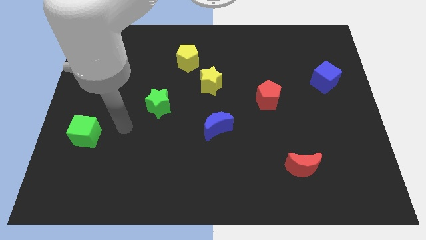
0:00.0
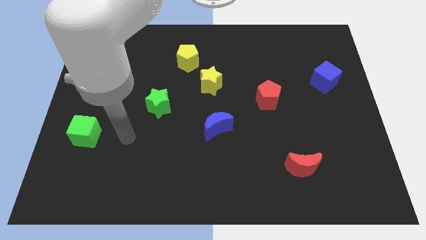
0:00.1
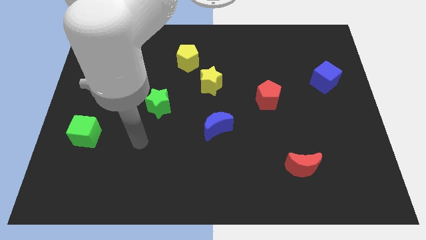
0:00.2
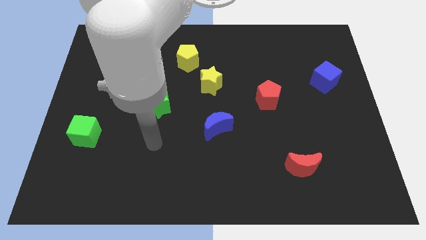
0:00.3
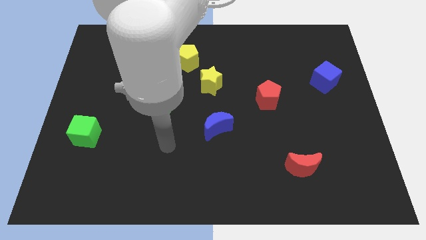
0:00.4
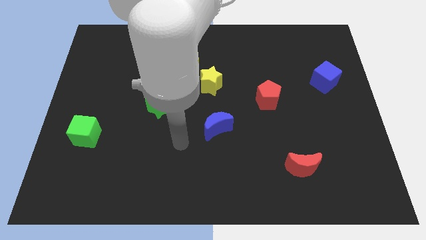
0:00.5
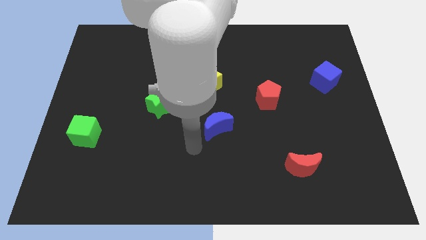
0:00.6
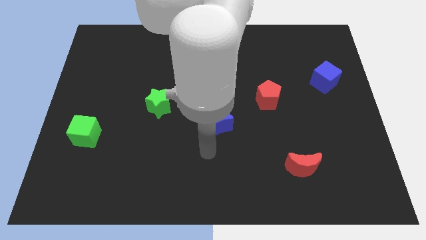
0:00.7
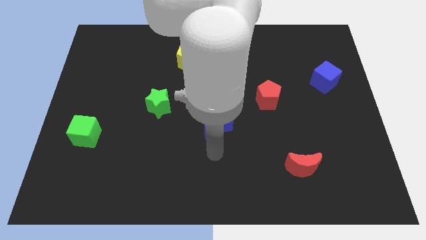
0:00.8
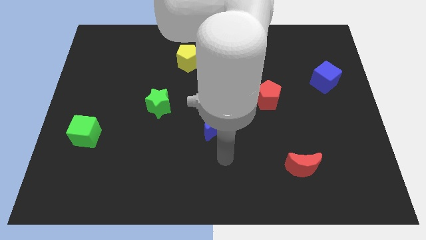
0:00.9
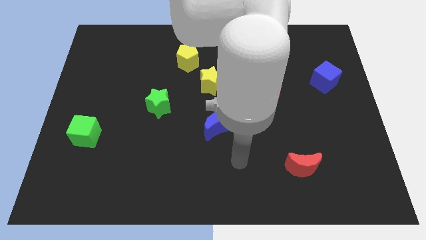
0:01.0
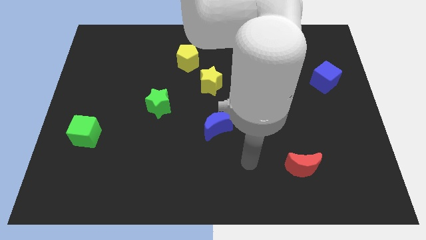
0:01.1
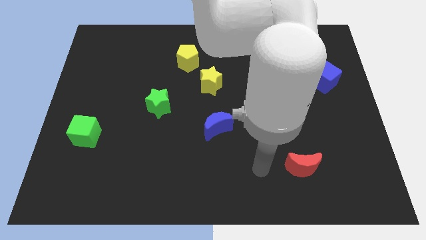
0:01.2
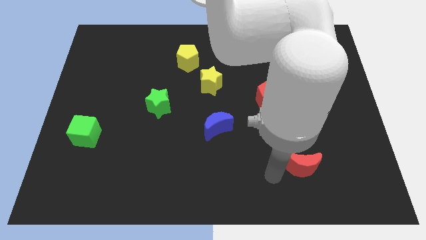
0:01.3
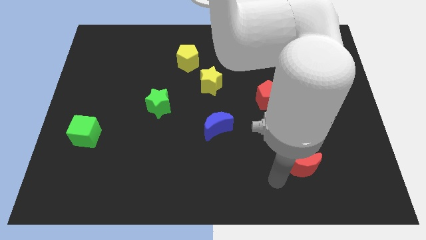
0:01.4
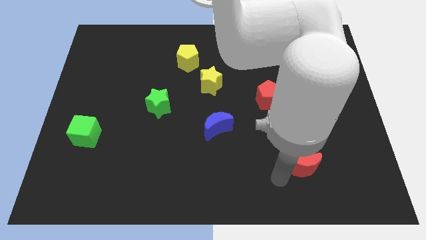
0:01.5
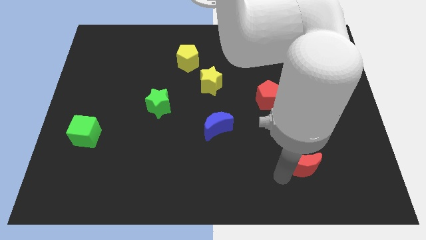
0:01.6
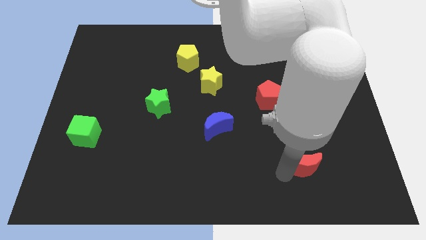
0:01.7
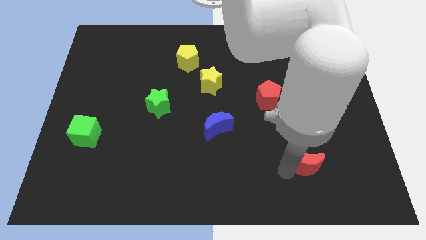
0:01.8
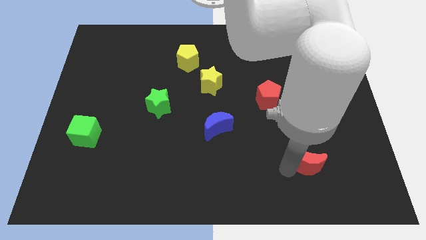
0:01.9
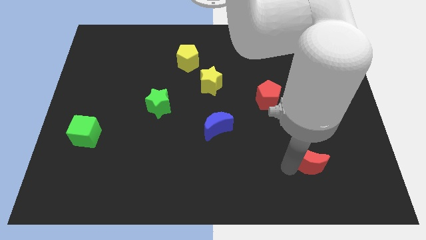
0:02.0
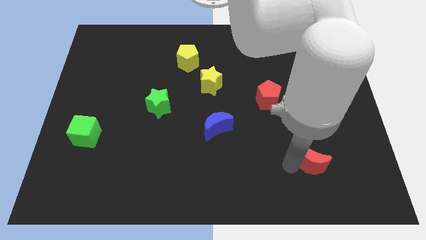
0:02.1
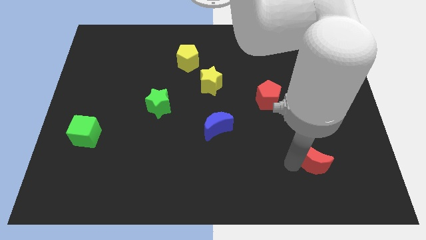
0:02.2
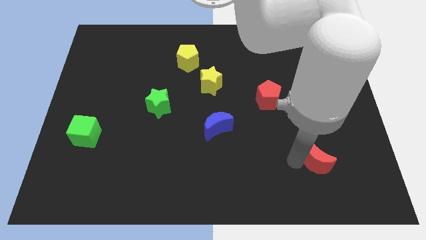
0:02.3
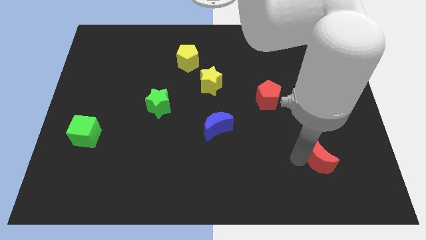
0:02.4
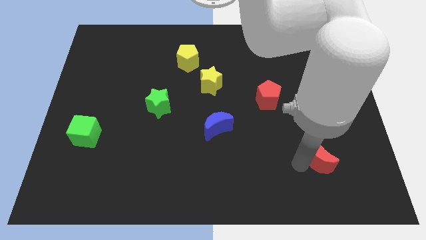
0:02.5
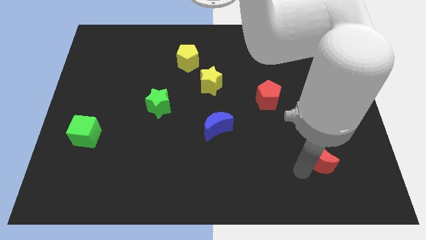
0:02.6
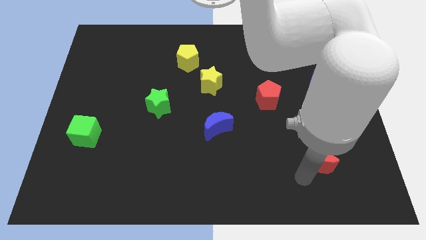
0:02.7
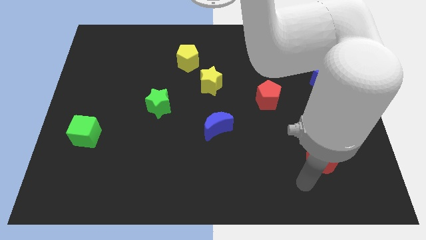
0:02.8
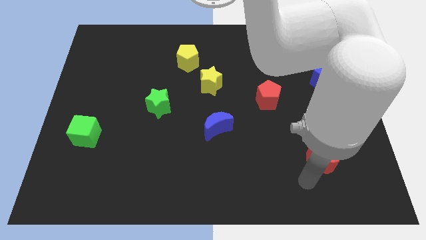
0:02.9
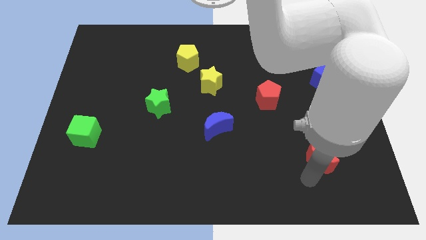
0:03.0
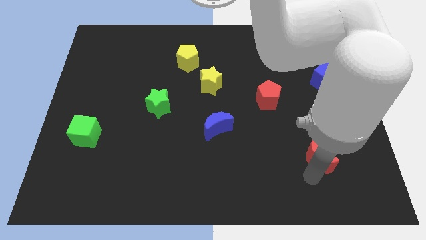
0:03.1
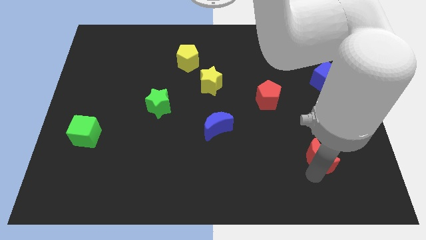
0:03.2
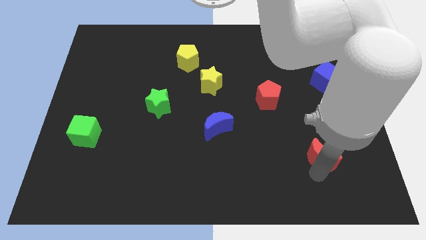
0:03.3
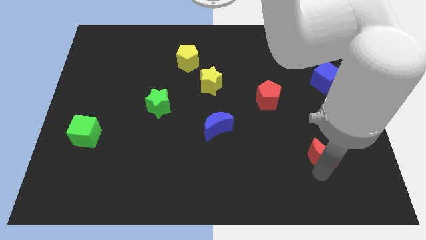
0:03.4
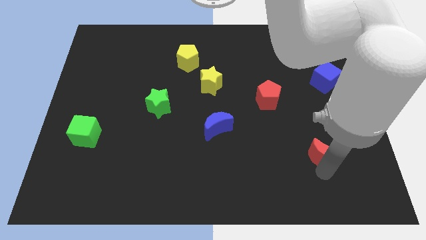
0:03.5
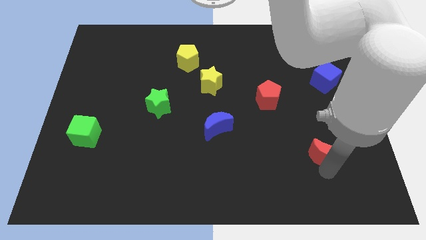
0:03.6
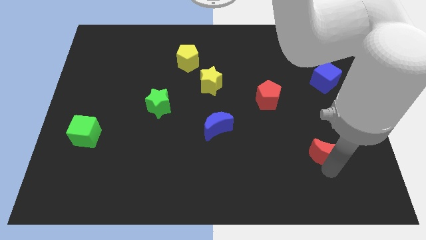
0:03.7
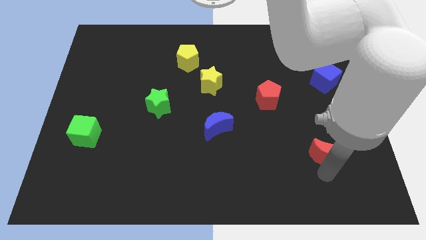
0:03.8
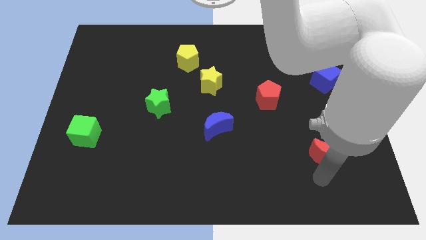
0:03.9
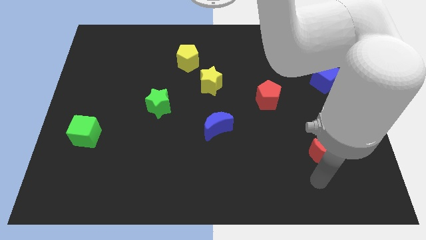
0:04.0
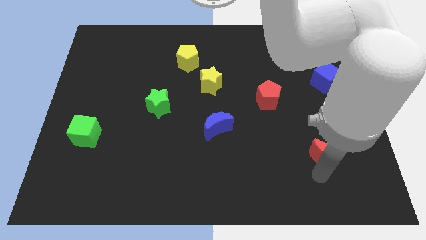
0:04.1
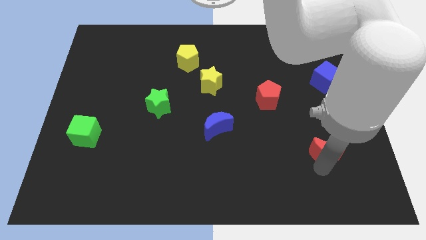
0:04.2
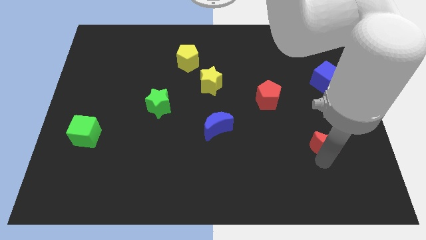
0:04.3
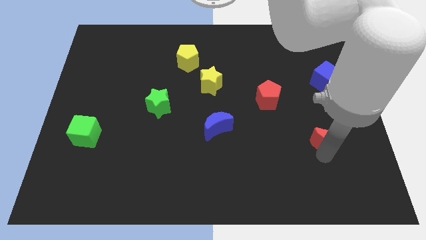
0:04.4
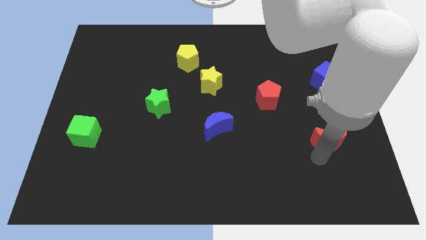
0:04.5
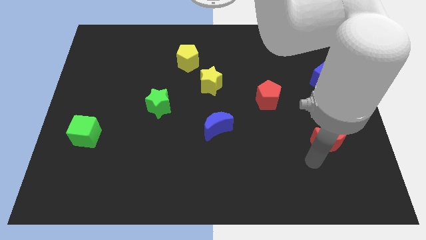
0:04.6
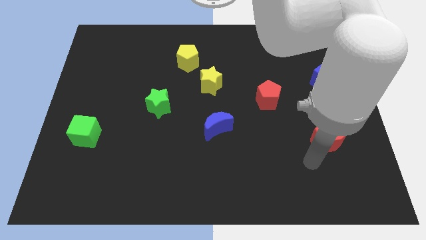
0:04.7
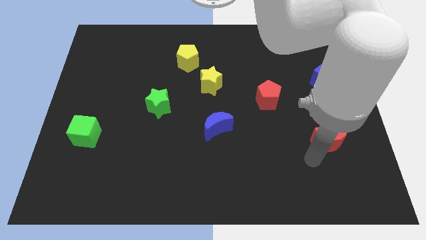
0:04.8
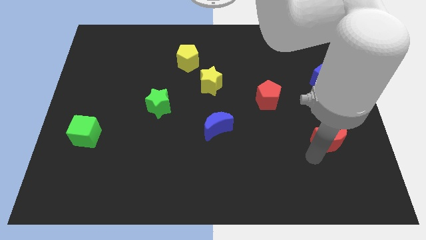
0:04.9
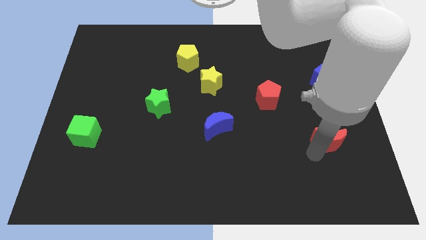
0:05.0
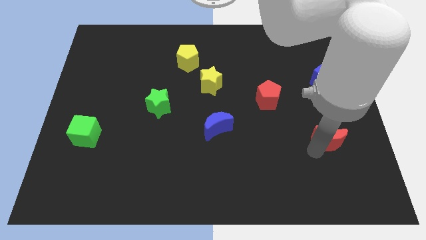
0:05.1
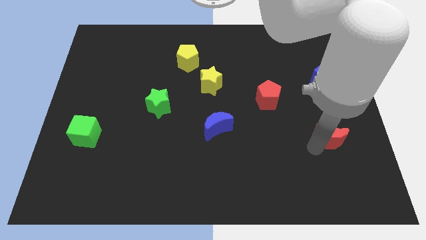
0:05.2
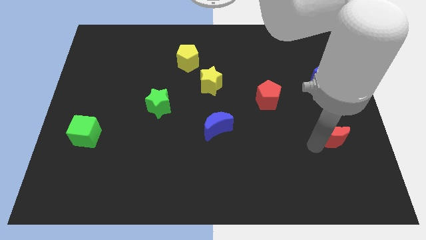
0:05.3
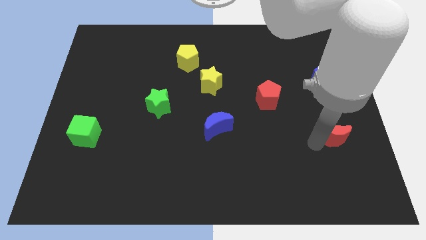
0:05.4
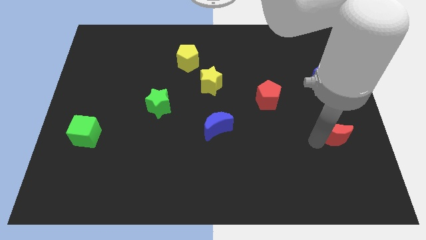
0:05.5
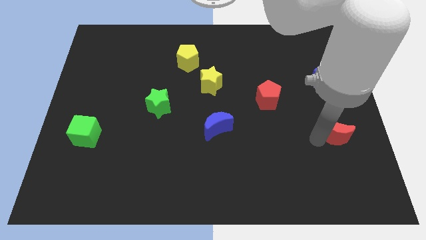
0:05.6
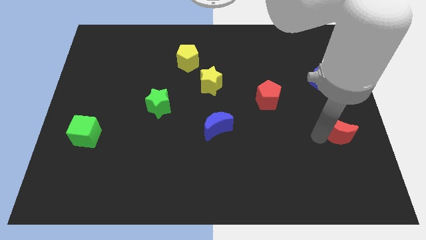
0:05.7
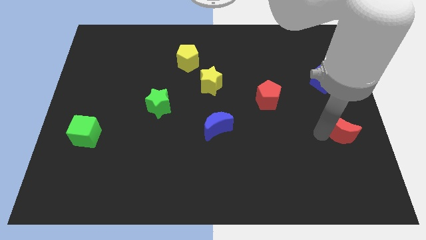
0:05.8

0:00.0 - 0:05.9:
move the red moon to the right side of the board

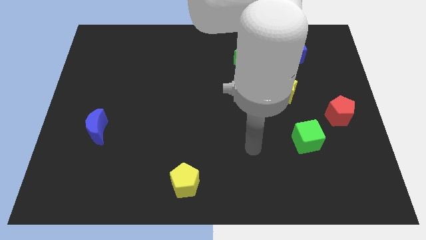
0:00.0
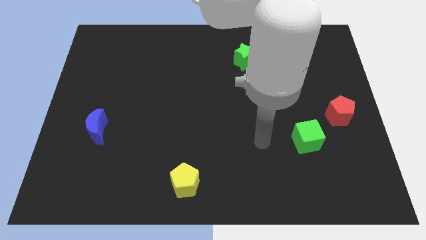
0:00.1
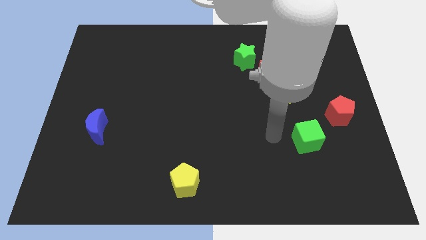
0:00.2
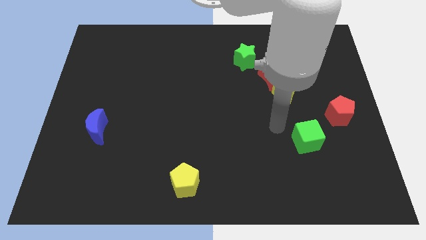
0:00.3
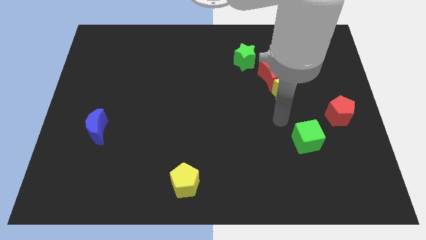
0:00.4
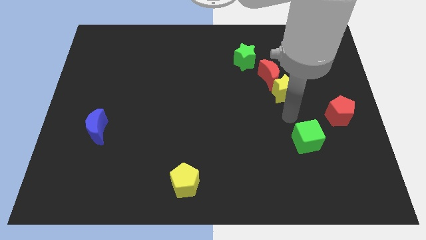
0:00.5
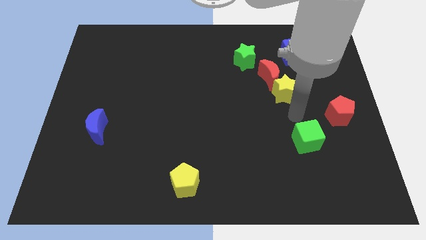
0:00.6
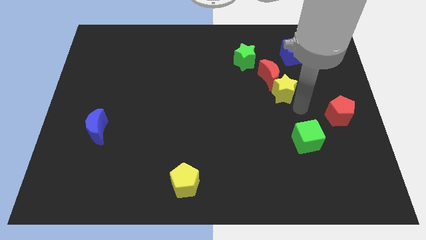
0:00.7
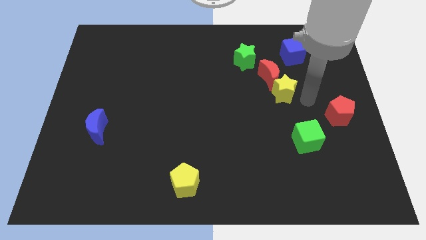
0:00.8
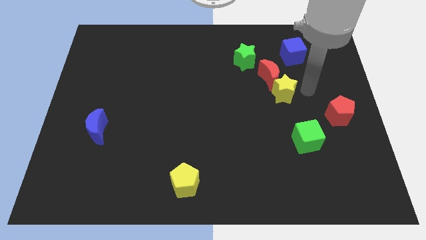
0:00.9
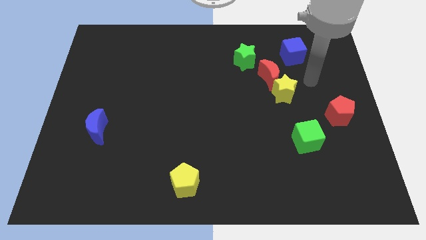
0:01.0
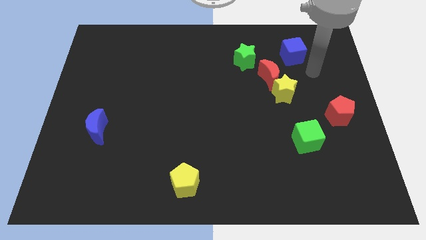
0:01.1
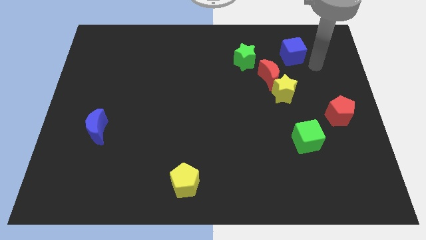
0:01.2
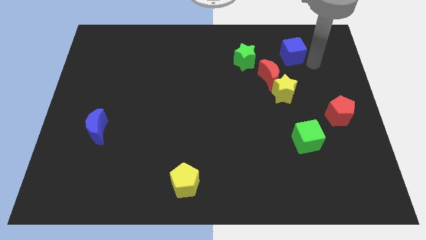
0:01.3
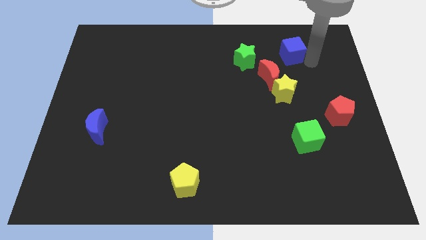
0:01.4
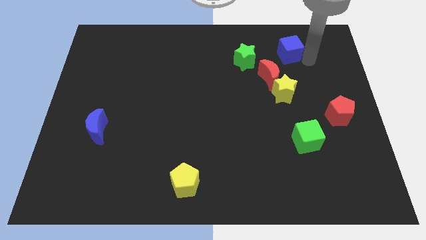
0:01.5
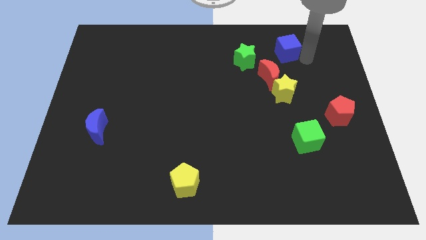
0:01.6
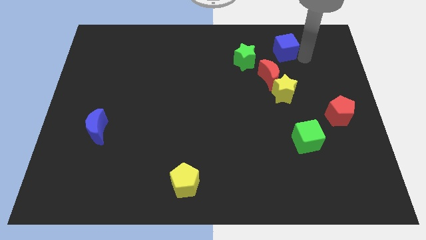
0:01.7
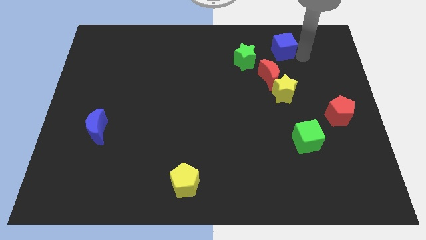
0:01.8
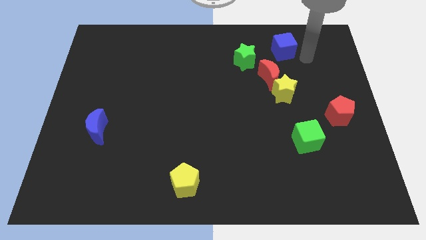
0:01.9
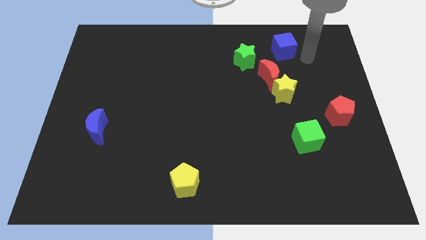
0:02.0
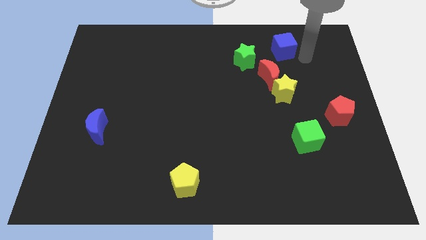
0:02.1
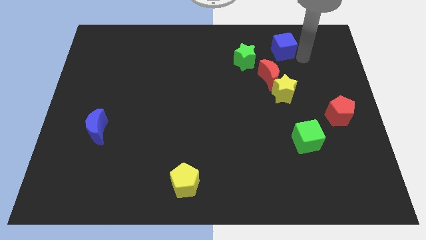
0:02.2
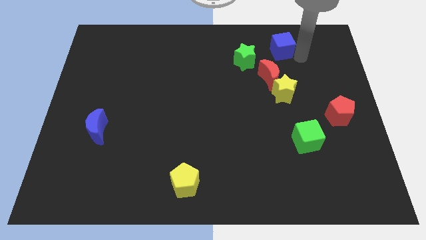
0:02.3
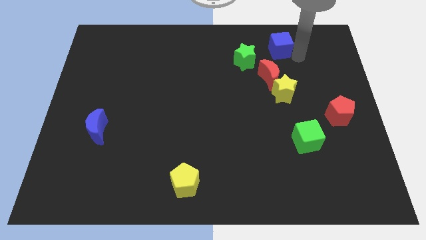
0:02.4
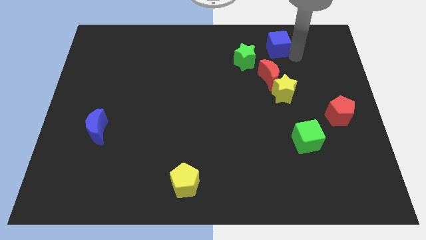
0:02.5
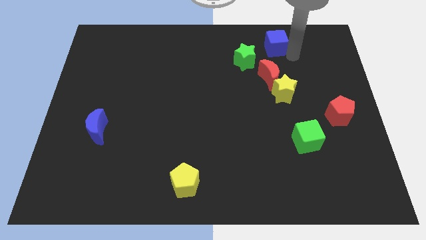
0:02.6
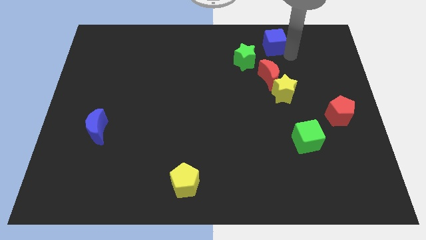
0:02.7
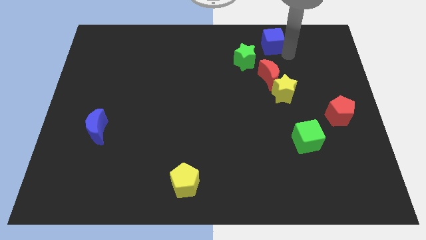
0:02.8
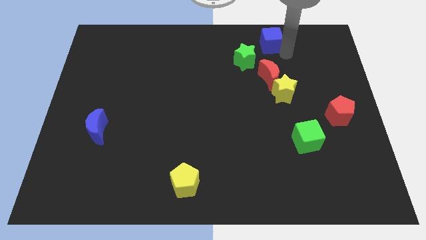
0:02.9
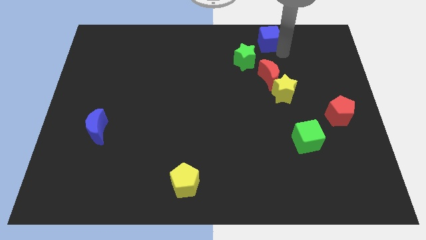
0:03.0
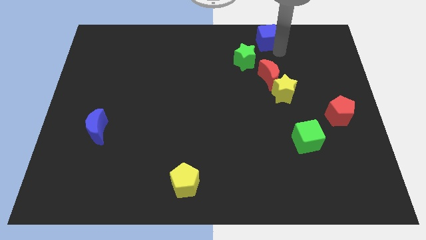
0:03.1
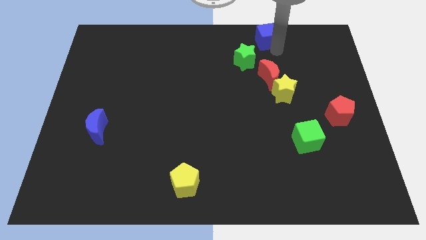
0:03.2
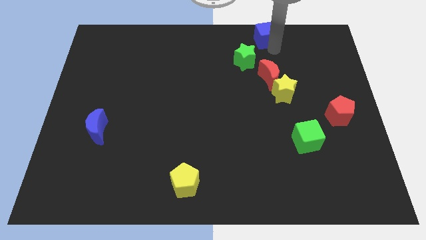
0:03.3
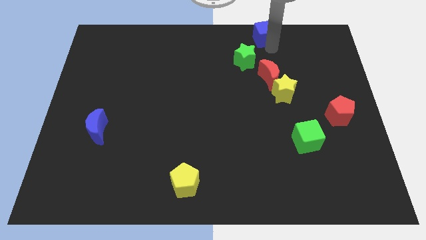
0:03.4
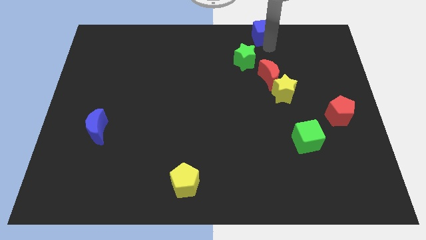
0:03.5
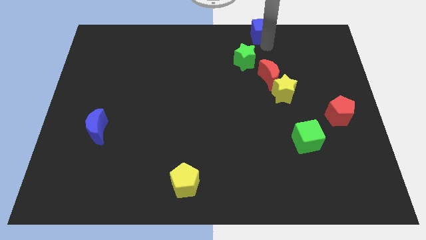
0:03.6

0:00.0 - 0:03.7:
slide the blue cube to the top side
